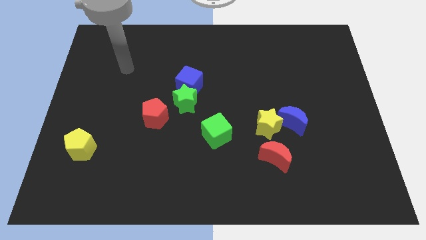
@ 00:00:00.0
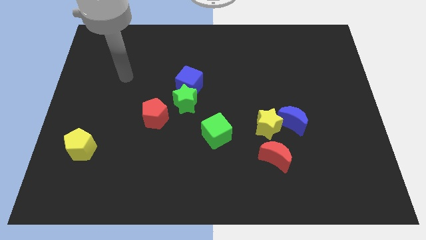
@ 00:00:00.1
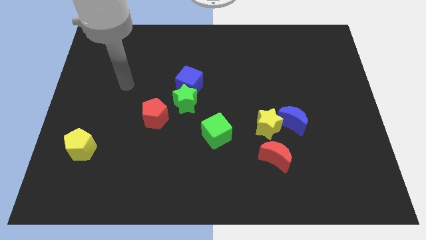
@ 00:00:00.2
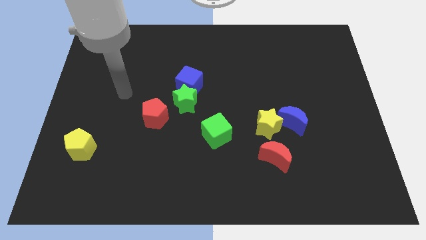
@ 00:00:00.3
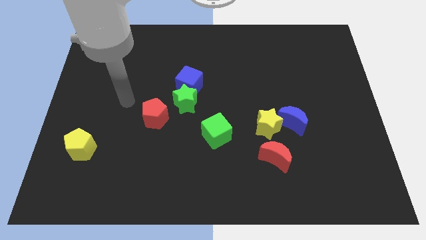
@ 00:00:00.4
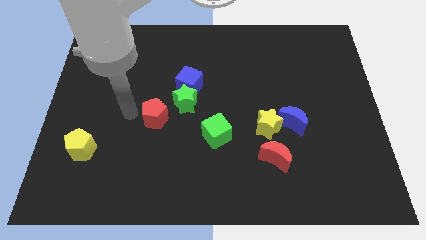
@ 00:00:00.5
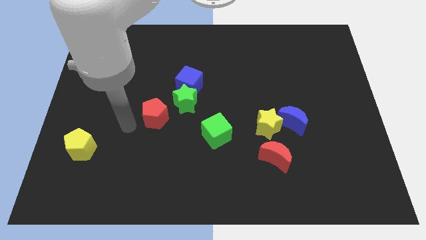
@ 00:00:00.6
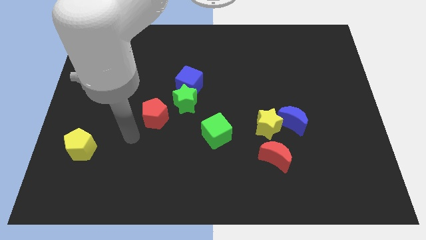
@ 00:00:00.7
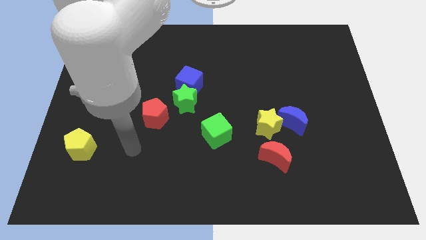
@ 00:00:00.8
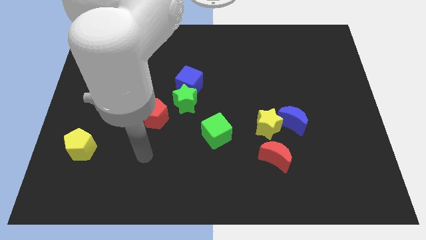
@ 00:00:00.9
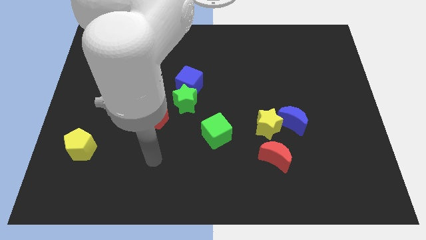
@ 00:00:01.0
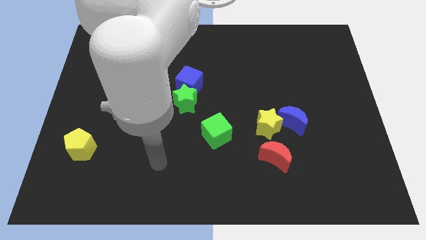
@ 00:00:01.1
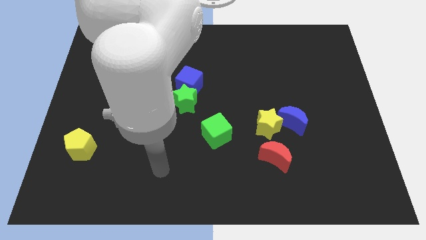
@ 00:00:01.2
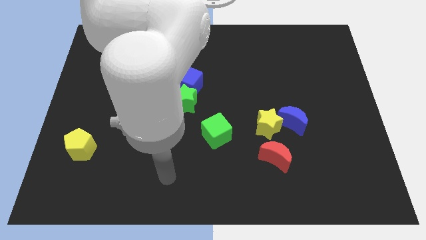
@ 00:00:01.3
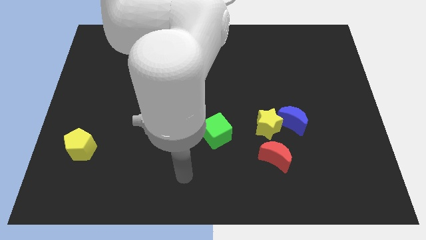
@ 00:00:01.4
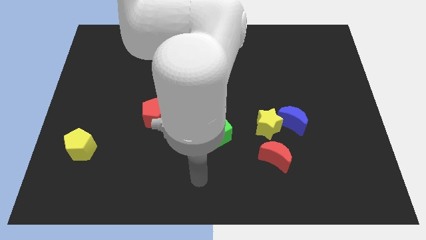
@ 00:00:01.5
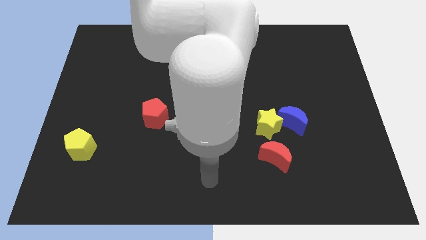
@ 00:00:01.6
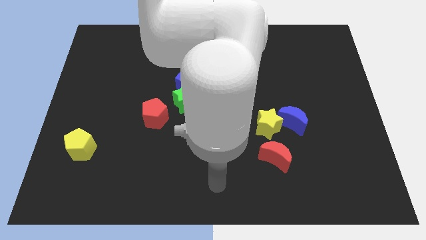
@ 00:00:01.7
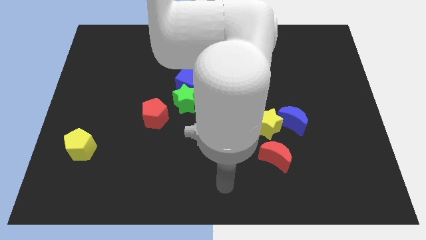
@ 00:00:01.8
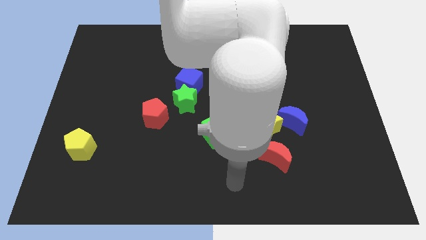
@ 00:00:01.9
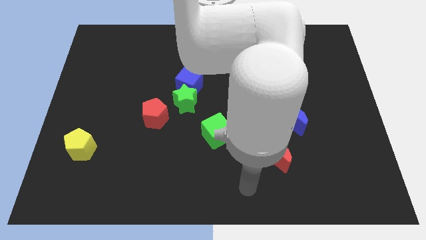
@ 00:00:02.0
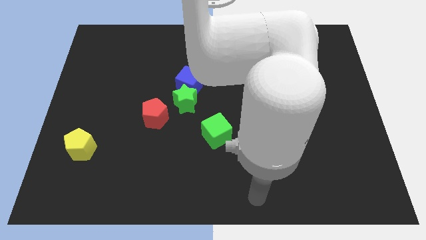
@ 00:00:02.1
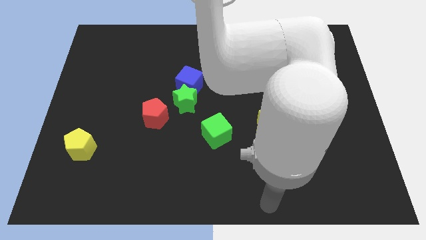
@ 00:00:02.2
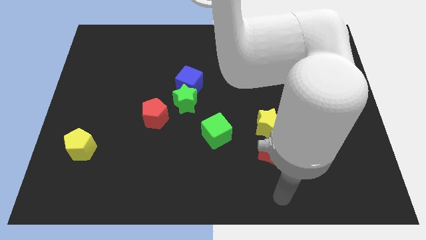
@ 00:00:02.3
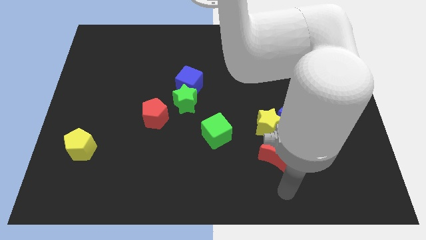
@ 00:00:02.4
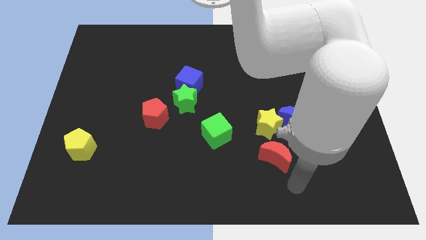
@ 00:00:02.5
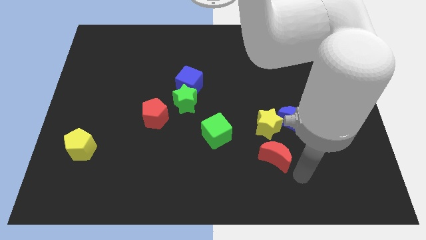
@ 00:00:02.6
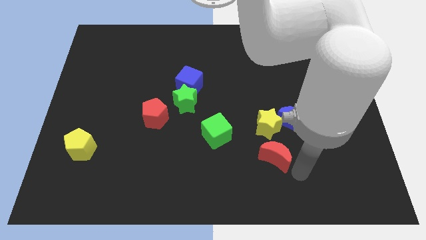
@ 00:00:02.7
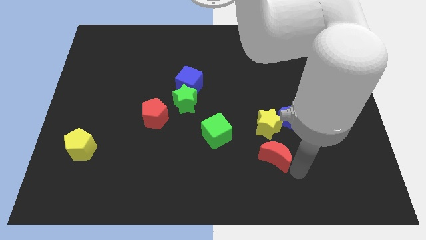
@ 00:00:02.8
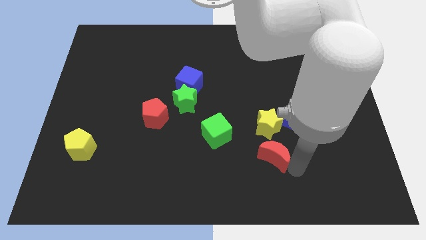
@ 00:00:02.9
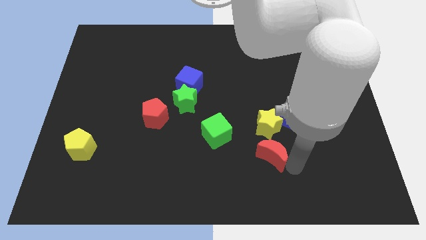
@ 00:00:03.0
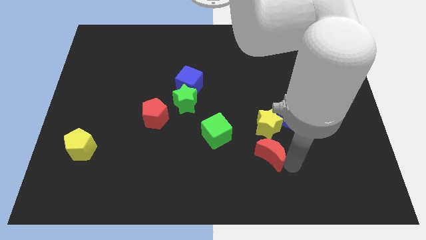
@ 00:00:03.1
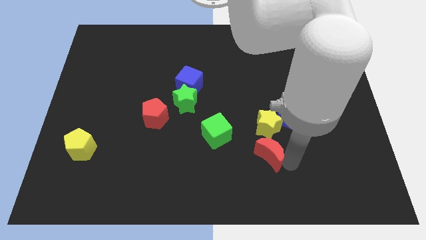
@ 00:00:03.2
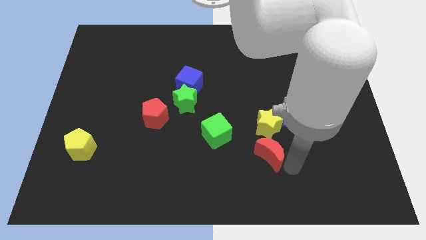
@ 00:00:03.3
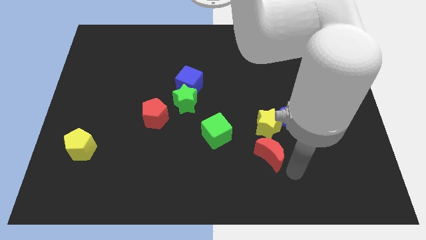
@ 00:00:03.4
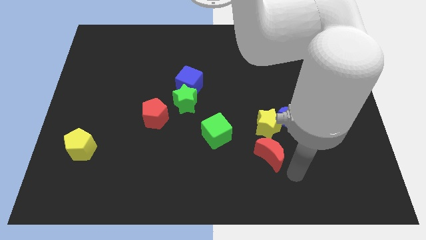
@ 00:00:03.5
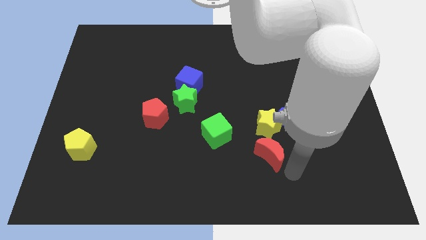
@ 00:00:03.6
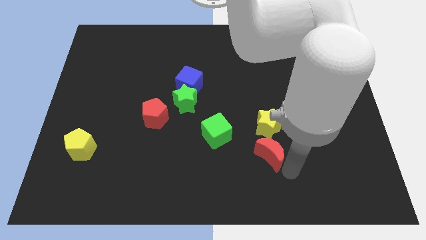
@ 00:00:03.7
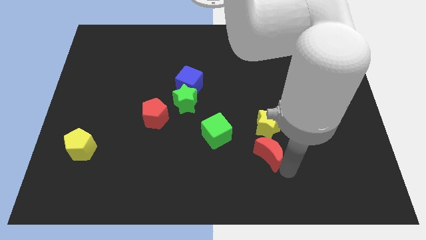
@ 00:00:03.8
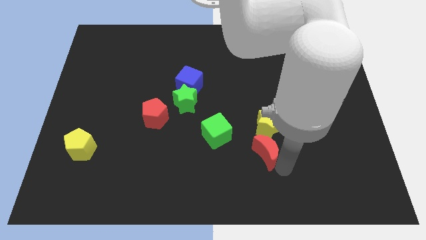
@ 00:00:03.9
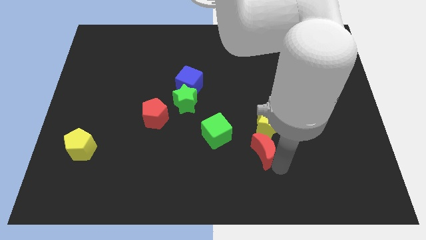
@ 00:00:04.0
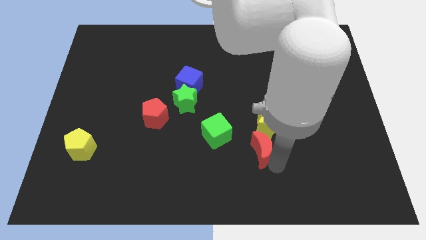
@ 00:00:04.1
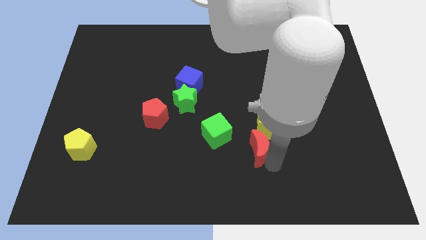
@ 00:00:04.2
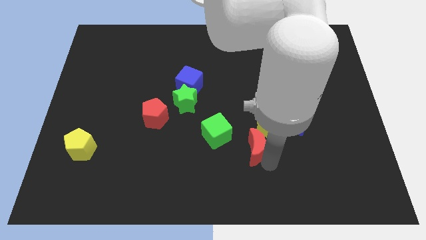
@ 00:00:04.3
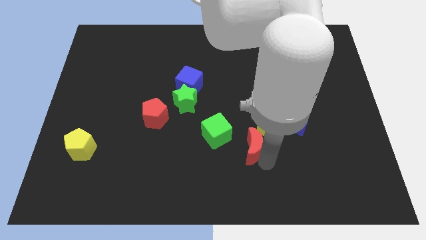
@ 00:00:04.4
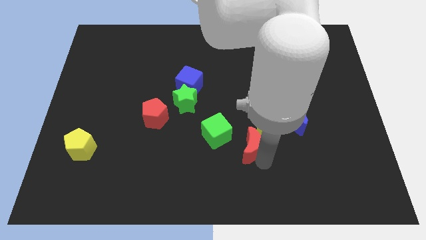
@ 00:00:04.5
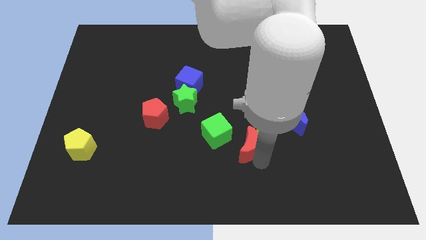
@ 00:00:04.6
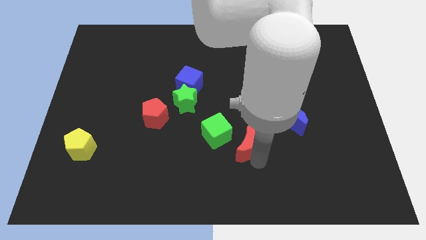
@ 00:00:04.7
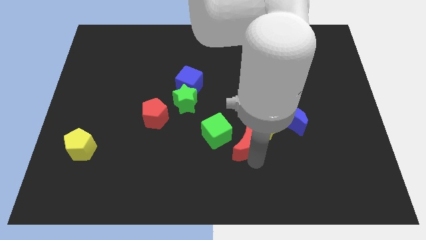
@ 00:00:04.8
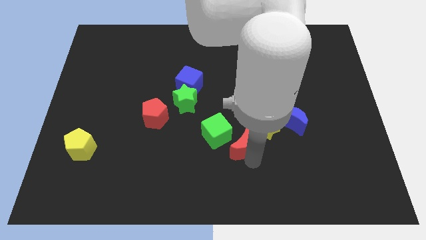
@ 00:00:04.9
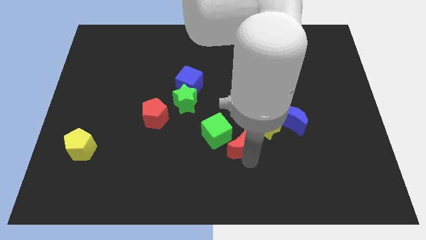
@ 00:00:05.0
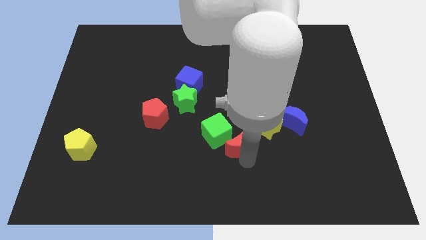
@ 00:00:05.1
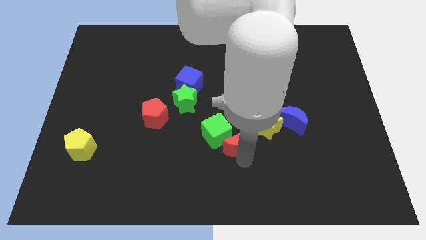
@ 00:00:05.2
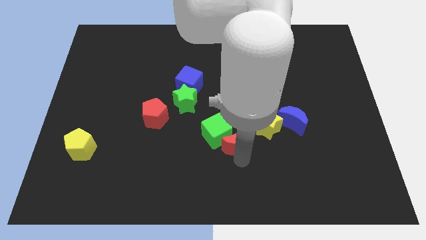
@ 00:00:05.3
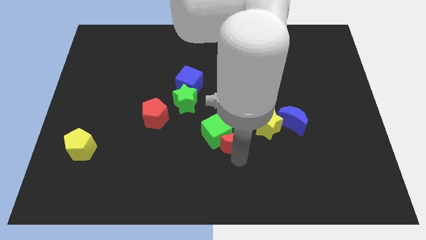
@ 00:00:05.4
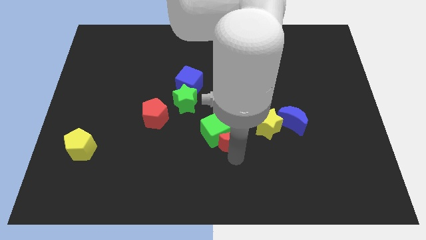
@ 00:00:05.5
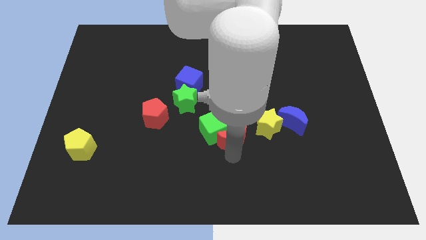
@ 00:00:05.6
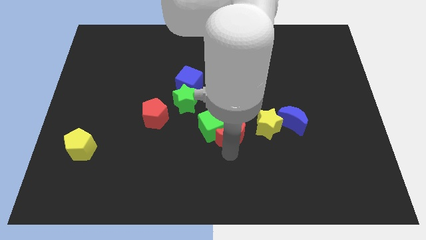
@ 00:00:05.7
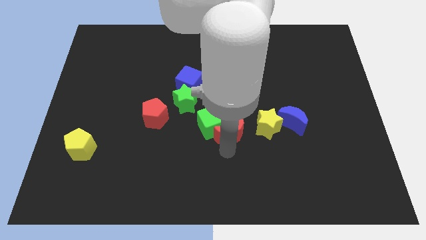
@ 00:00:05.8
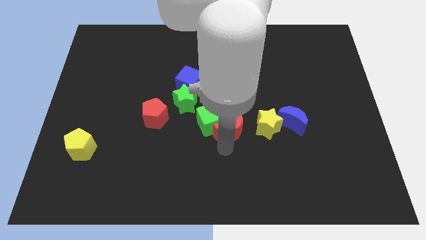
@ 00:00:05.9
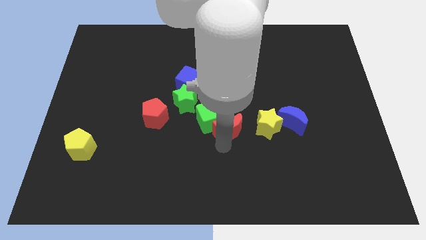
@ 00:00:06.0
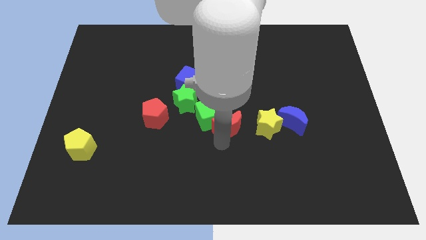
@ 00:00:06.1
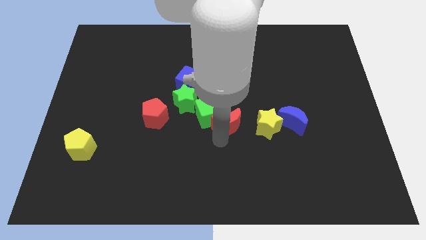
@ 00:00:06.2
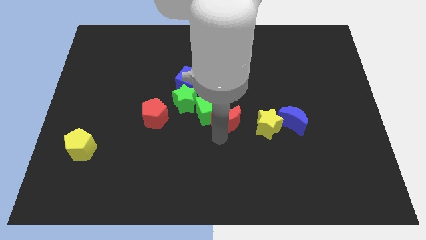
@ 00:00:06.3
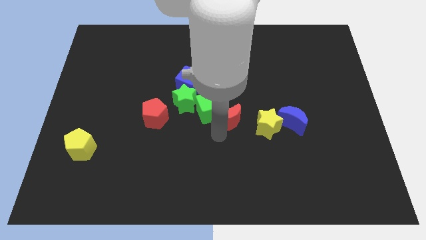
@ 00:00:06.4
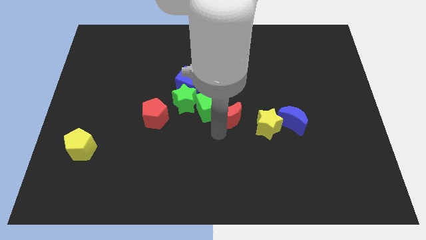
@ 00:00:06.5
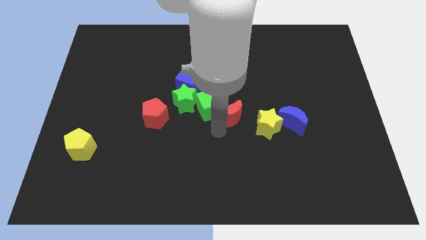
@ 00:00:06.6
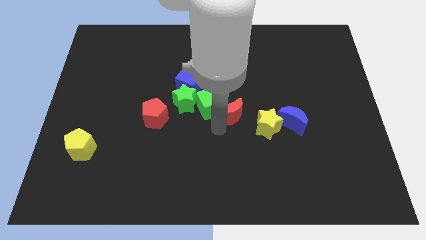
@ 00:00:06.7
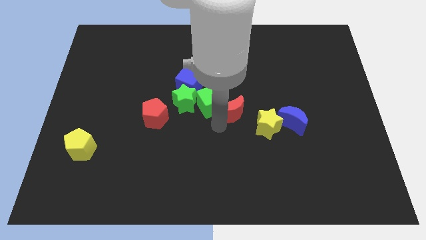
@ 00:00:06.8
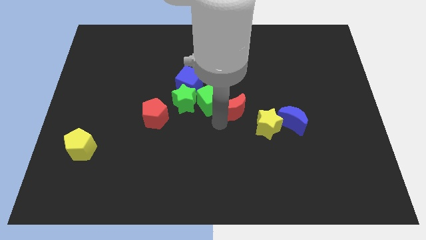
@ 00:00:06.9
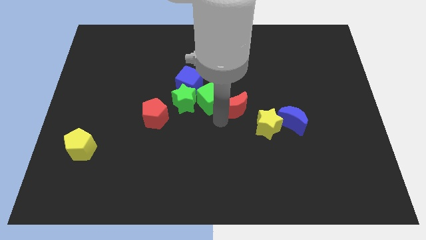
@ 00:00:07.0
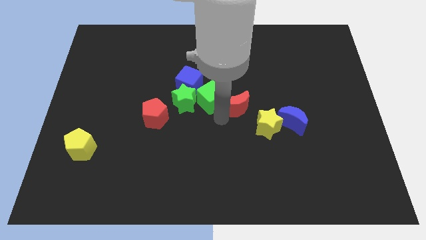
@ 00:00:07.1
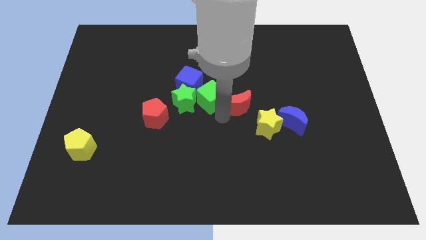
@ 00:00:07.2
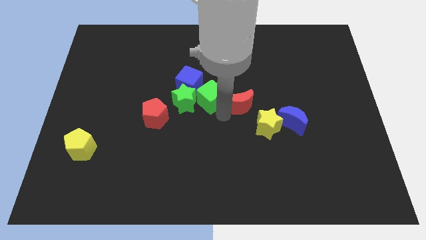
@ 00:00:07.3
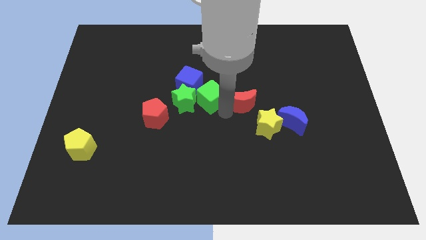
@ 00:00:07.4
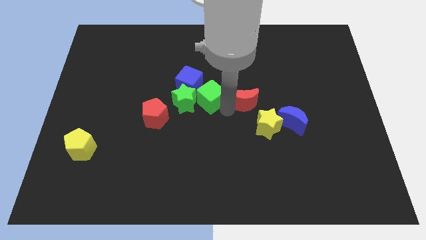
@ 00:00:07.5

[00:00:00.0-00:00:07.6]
slide the red moon above the yellow star
